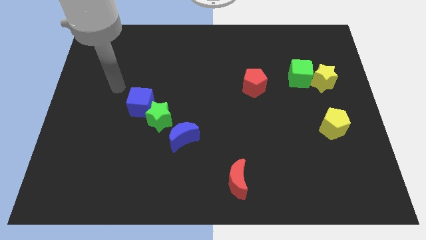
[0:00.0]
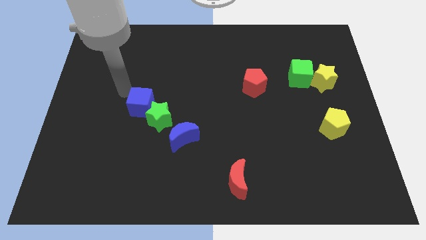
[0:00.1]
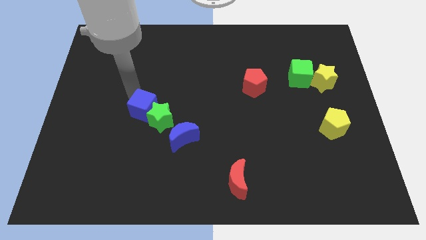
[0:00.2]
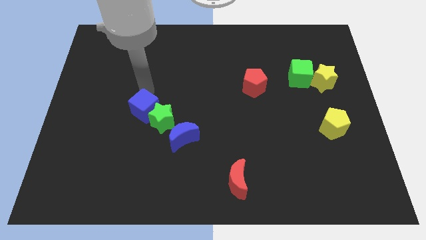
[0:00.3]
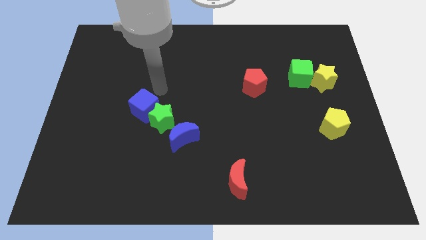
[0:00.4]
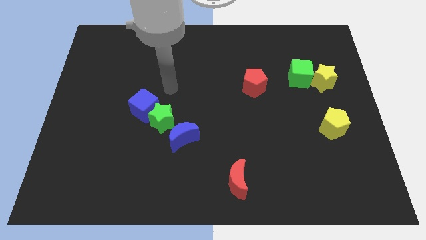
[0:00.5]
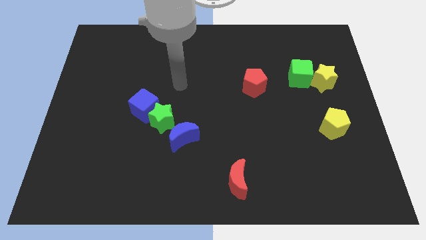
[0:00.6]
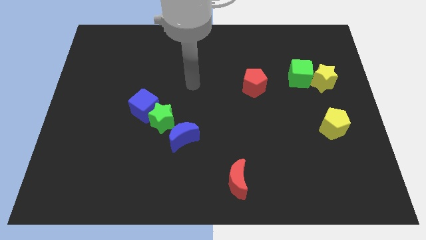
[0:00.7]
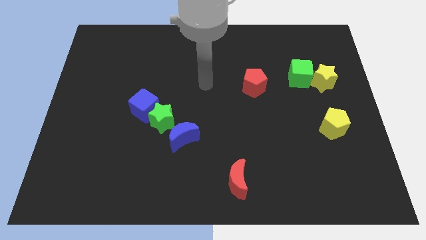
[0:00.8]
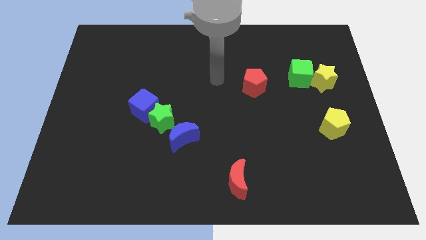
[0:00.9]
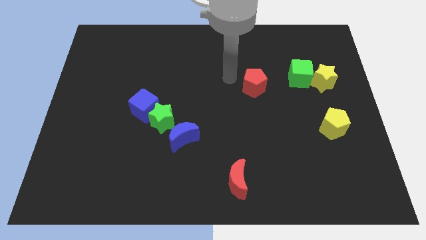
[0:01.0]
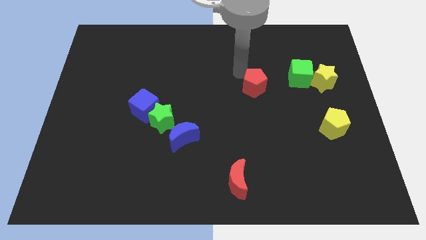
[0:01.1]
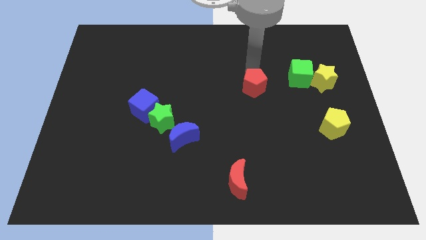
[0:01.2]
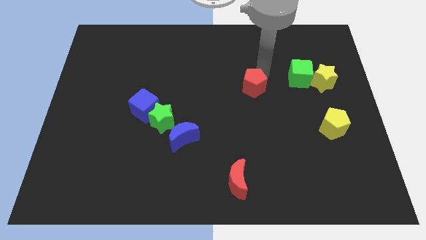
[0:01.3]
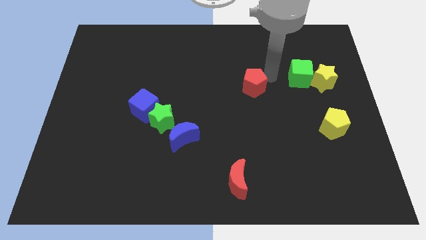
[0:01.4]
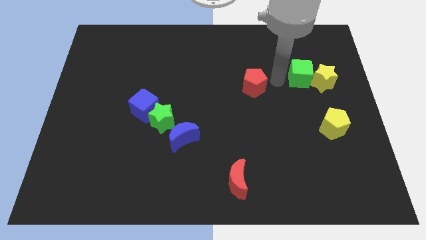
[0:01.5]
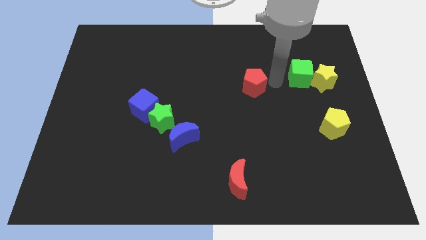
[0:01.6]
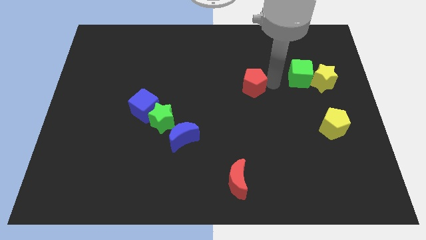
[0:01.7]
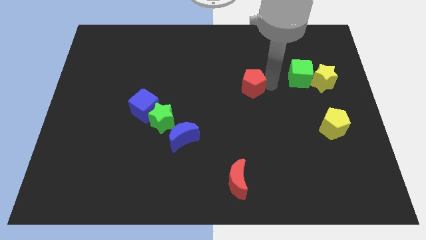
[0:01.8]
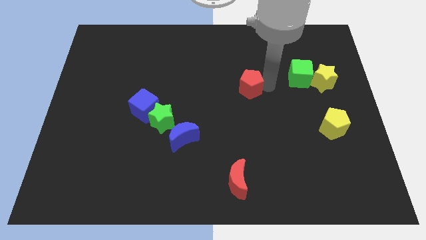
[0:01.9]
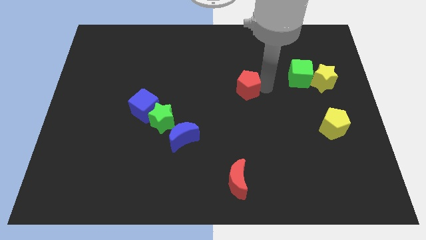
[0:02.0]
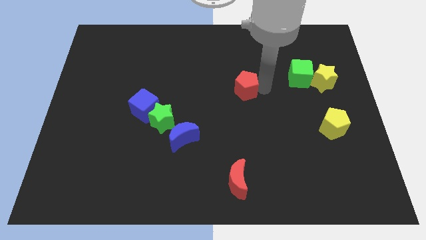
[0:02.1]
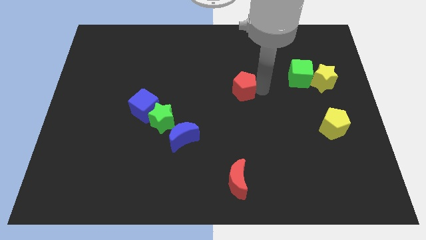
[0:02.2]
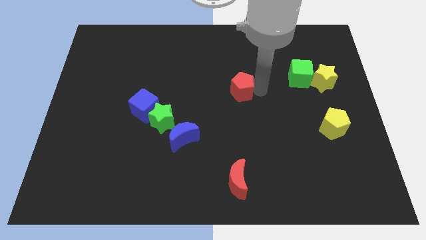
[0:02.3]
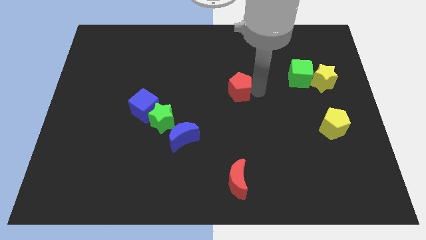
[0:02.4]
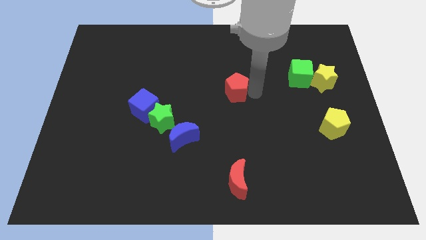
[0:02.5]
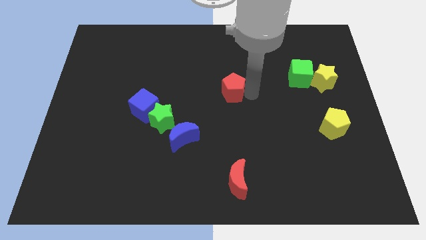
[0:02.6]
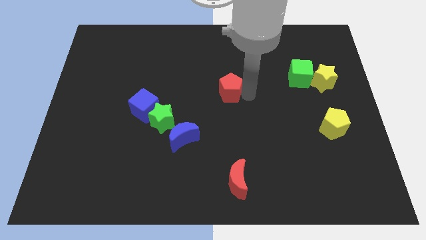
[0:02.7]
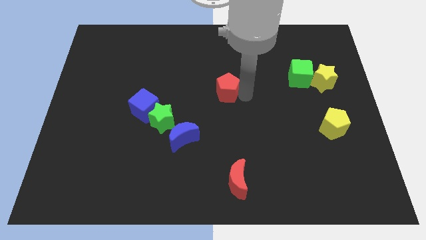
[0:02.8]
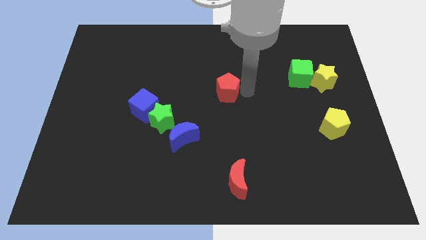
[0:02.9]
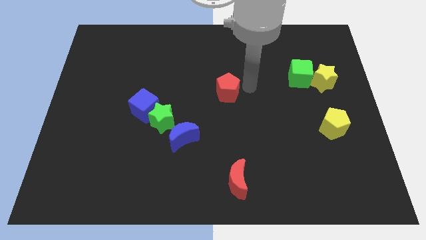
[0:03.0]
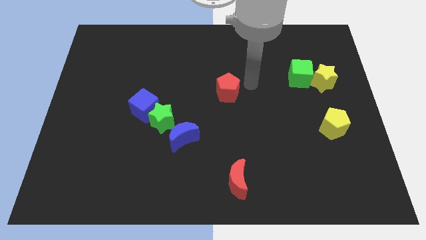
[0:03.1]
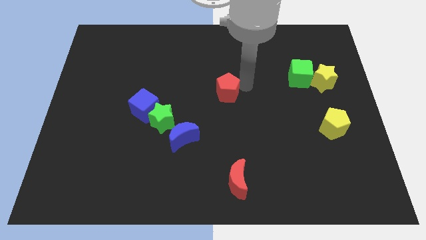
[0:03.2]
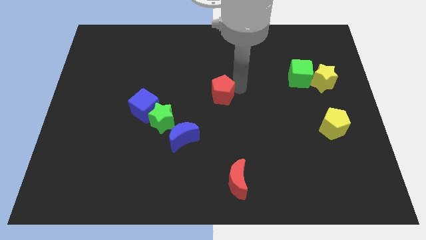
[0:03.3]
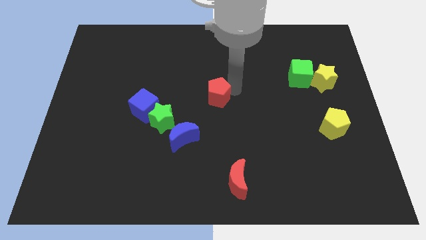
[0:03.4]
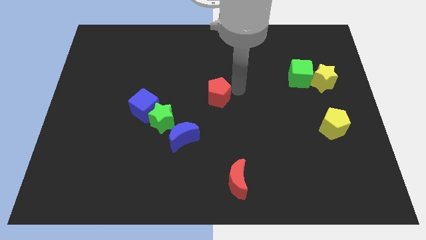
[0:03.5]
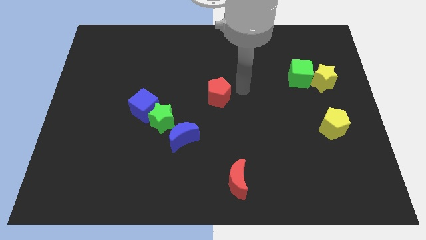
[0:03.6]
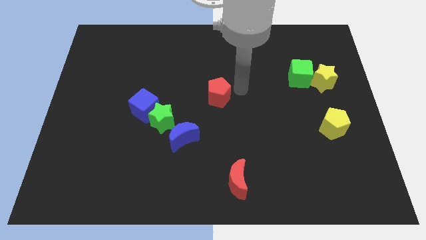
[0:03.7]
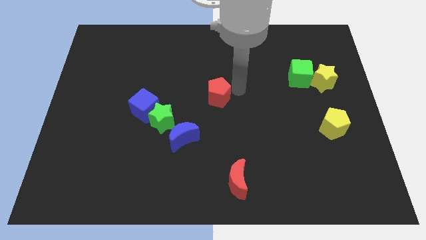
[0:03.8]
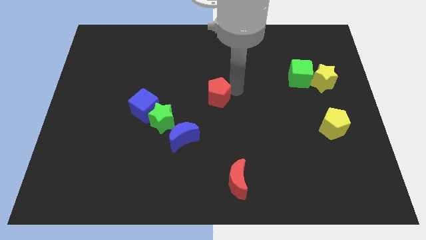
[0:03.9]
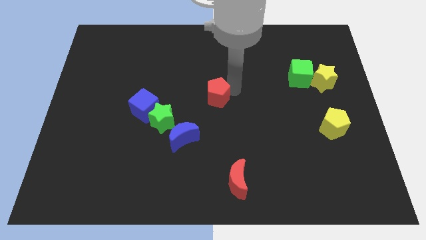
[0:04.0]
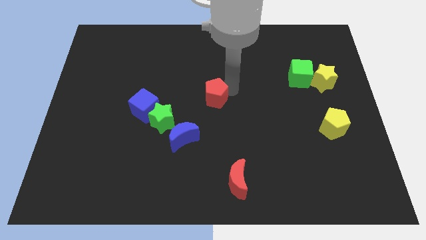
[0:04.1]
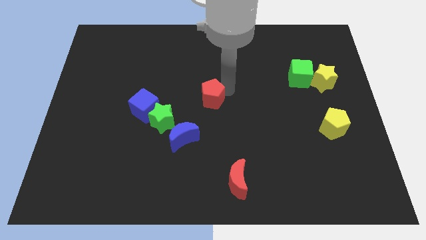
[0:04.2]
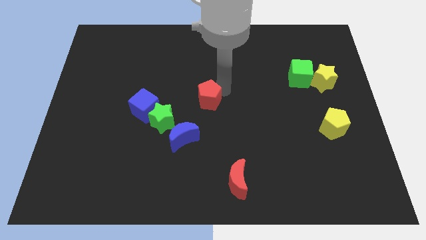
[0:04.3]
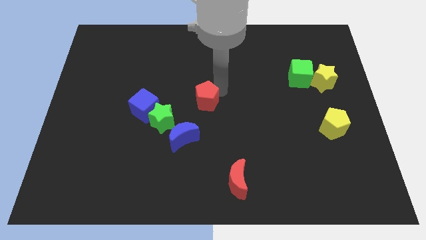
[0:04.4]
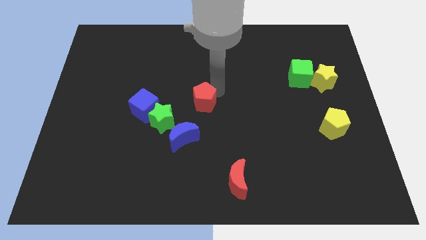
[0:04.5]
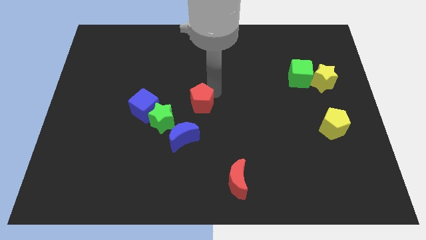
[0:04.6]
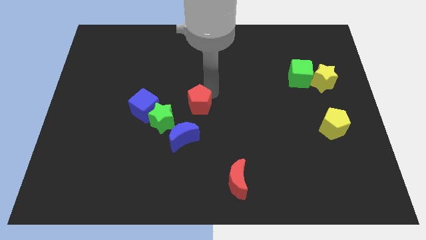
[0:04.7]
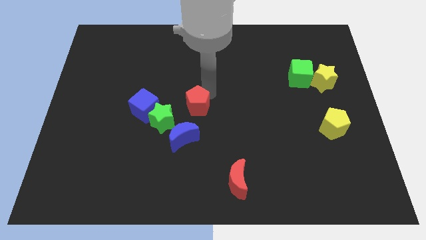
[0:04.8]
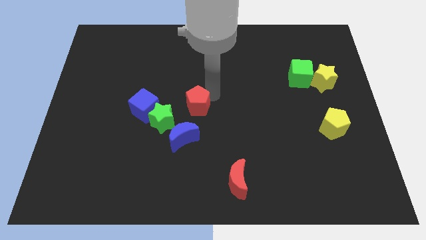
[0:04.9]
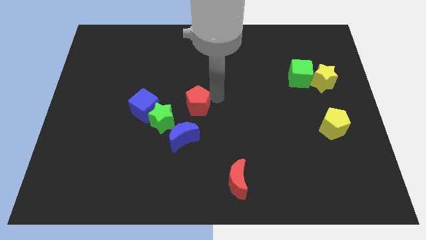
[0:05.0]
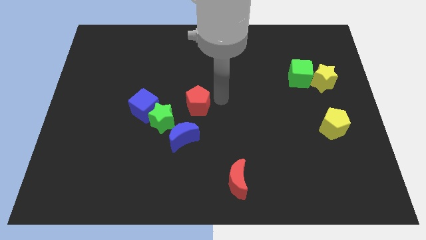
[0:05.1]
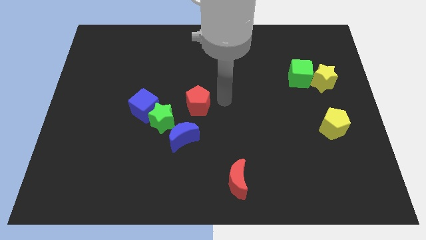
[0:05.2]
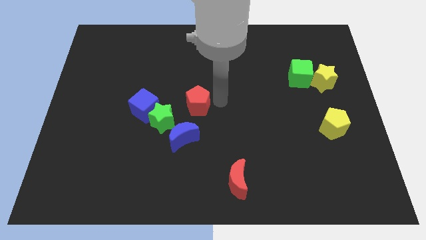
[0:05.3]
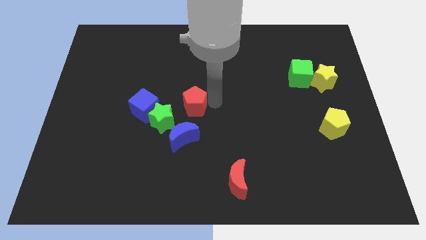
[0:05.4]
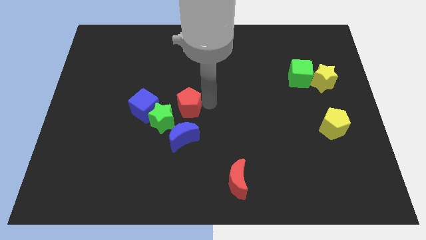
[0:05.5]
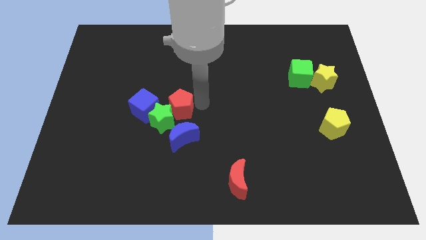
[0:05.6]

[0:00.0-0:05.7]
put the red pentagon towards the green star

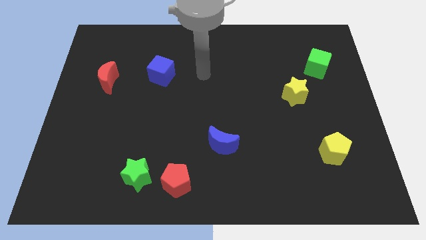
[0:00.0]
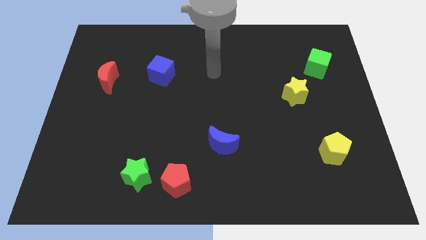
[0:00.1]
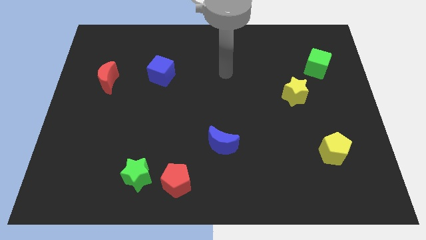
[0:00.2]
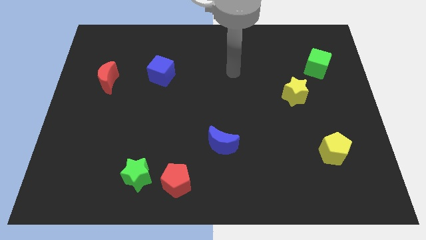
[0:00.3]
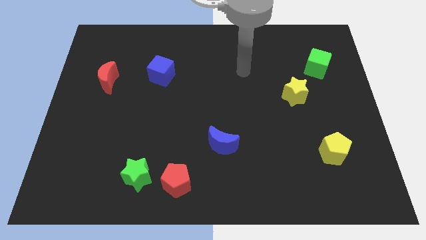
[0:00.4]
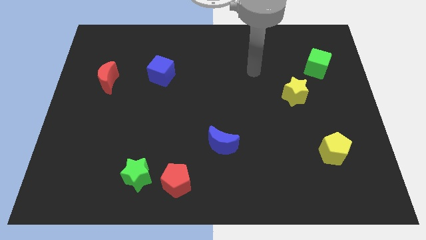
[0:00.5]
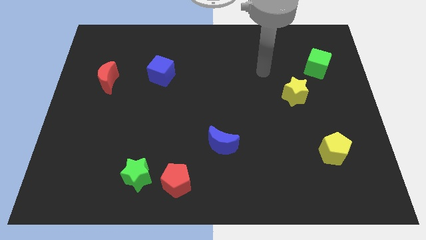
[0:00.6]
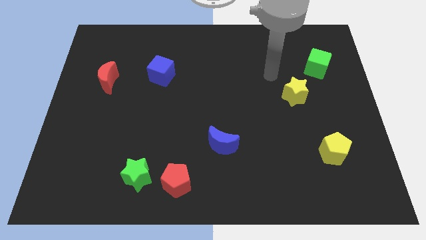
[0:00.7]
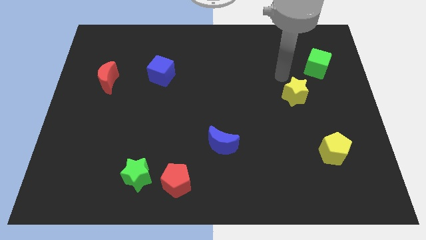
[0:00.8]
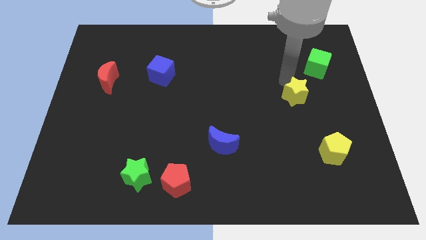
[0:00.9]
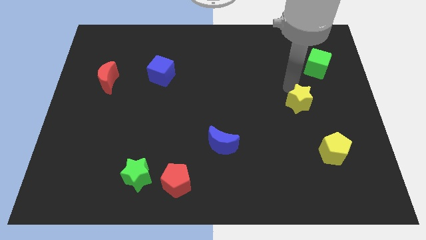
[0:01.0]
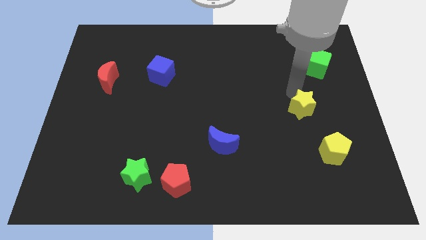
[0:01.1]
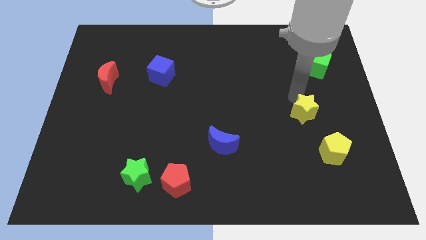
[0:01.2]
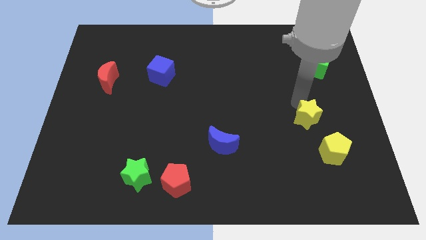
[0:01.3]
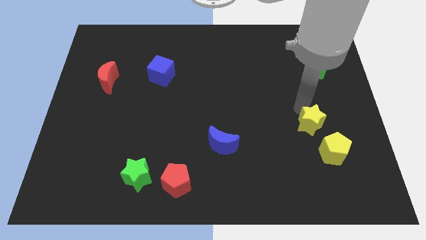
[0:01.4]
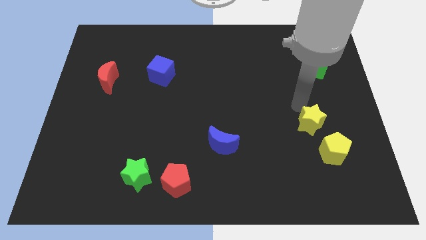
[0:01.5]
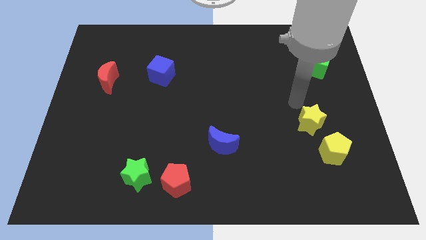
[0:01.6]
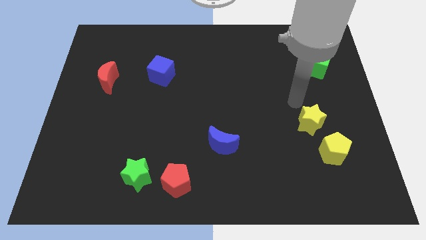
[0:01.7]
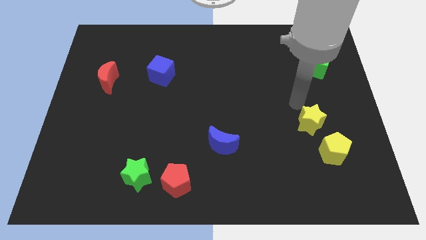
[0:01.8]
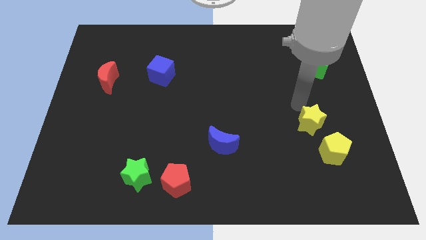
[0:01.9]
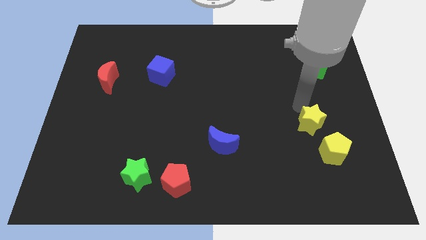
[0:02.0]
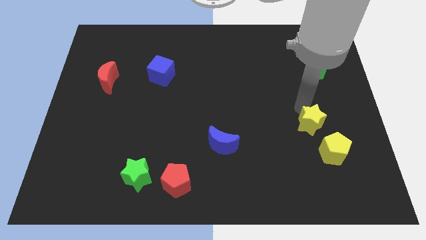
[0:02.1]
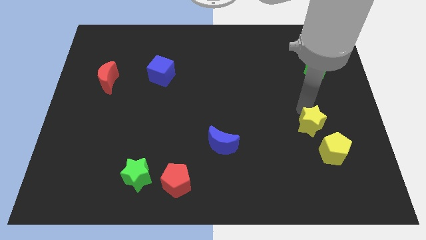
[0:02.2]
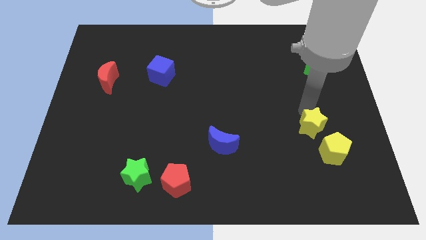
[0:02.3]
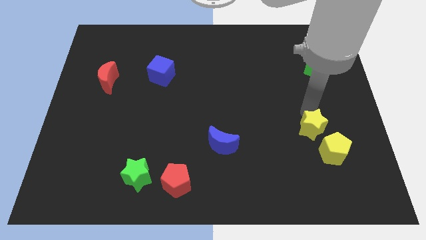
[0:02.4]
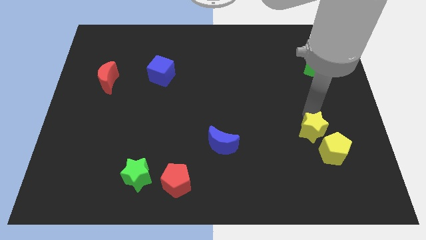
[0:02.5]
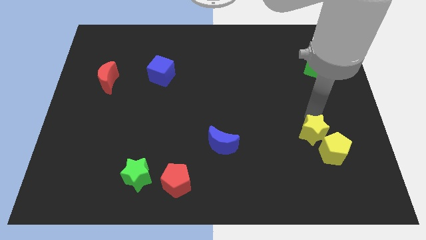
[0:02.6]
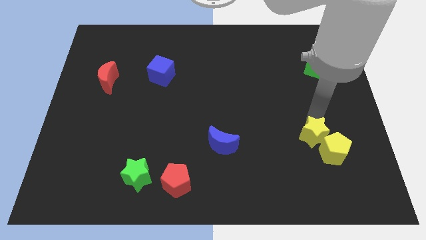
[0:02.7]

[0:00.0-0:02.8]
put the yellow star close to the yellow pentagon
